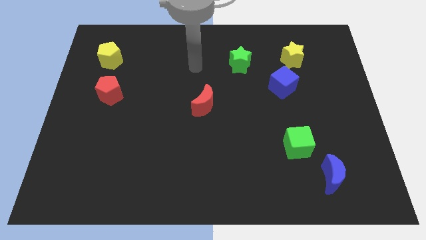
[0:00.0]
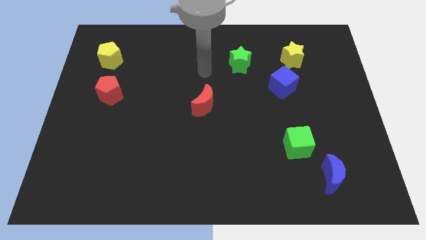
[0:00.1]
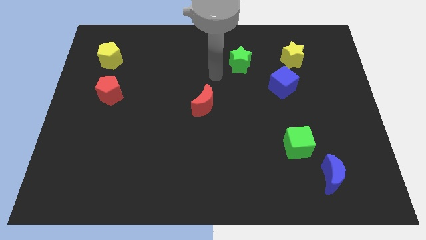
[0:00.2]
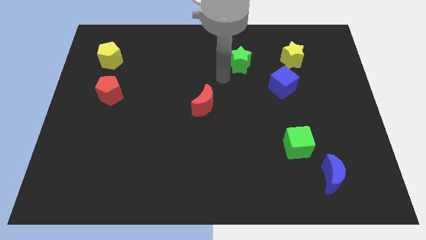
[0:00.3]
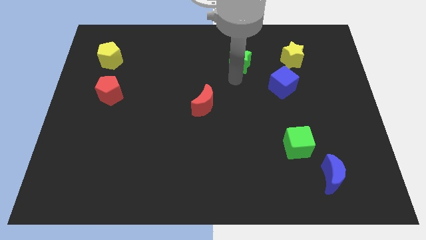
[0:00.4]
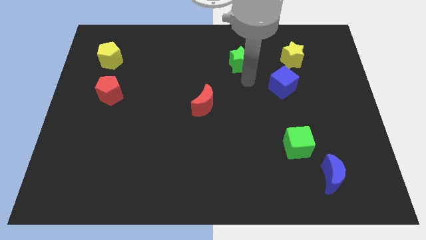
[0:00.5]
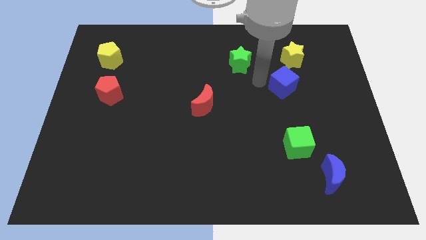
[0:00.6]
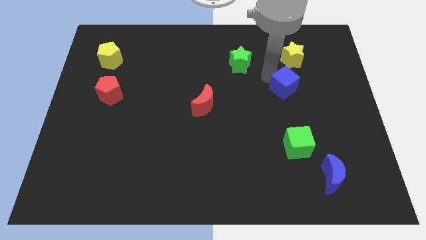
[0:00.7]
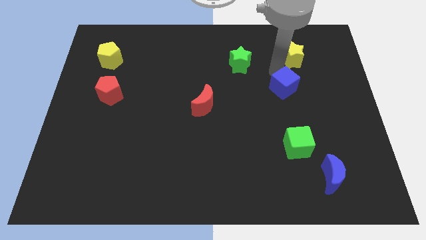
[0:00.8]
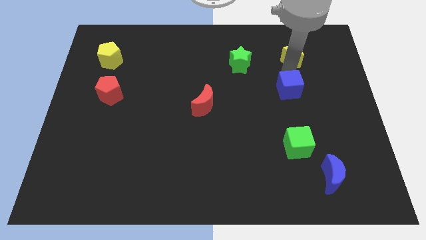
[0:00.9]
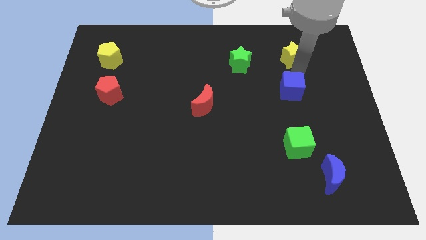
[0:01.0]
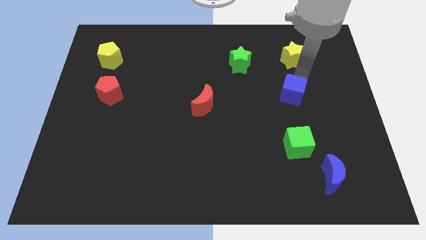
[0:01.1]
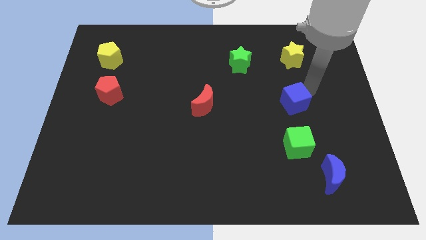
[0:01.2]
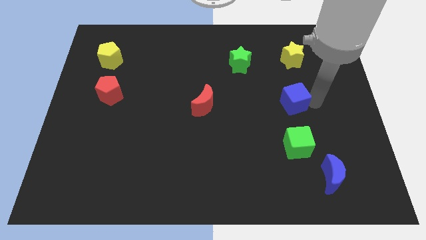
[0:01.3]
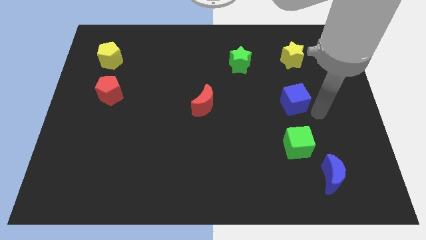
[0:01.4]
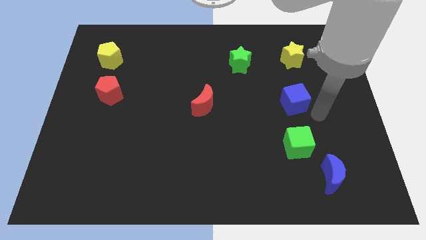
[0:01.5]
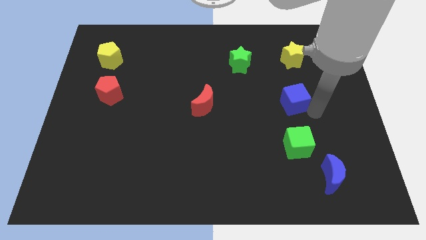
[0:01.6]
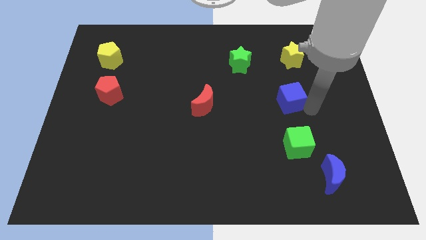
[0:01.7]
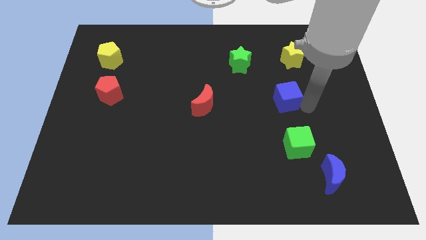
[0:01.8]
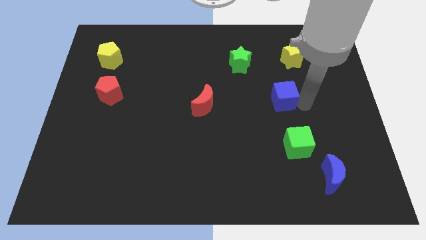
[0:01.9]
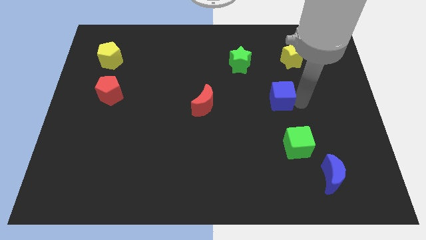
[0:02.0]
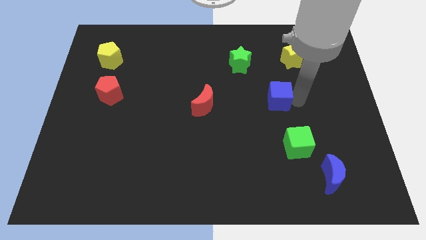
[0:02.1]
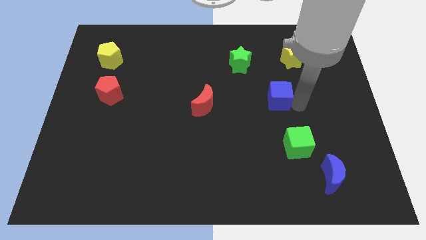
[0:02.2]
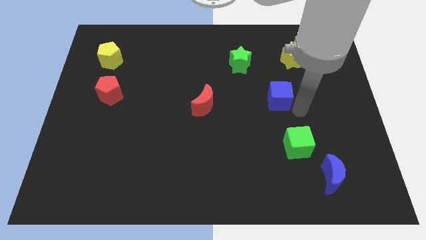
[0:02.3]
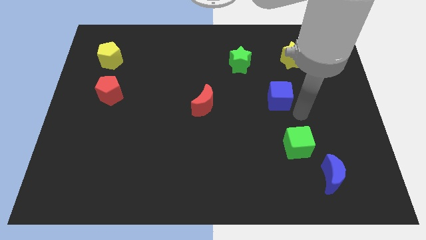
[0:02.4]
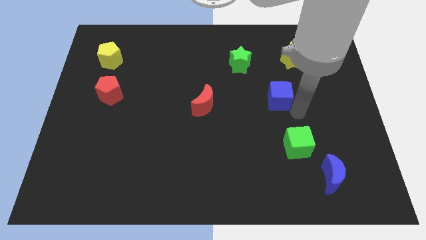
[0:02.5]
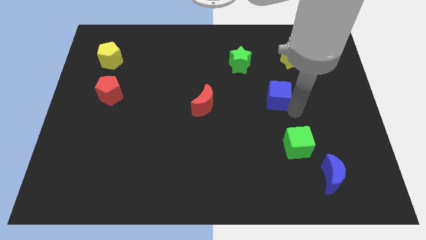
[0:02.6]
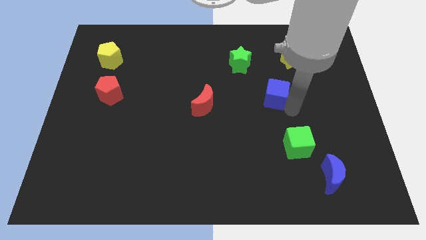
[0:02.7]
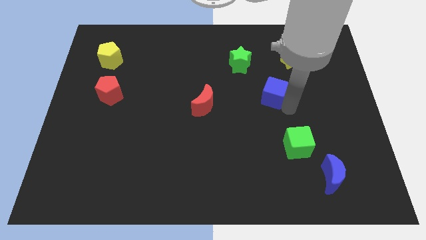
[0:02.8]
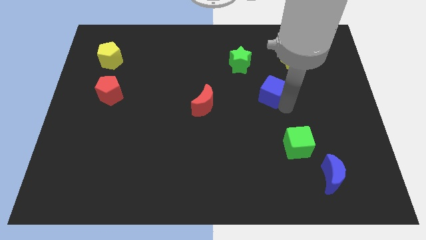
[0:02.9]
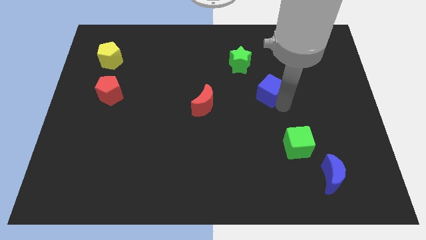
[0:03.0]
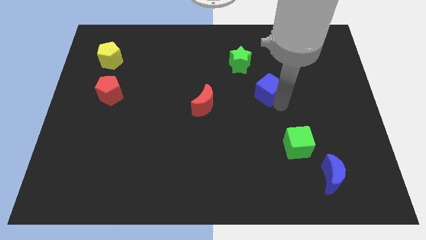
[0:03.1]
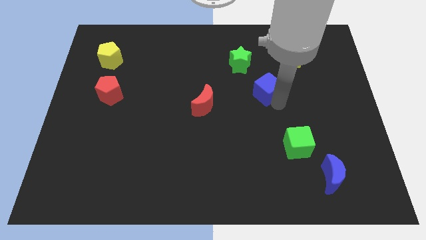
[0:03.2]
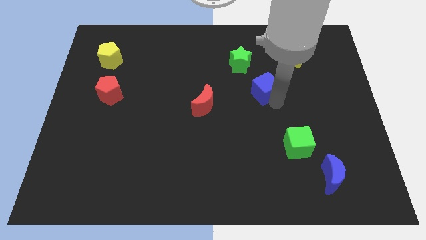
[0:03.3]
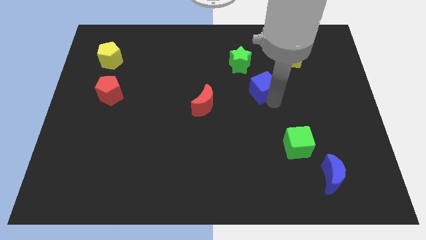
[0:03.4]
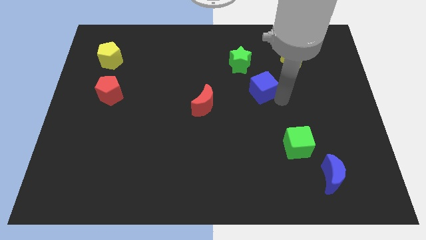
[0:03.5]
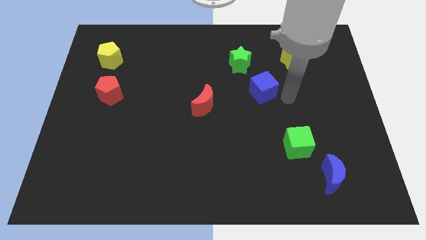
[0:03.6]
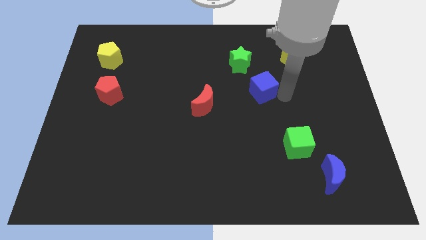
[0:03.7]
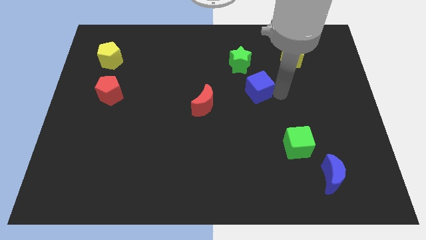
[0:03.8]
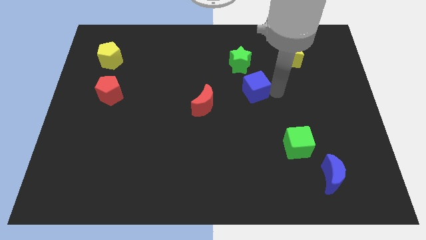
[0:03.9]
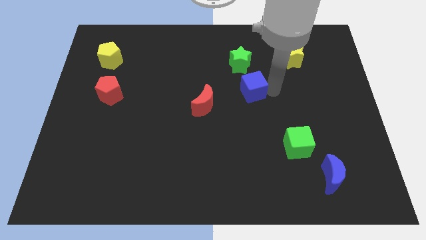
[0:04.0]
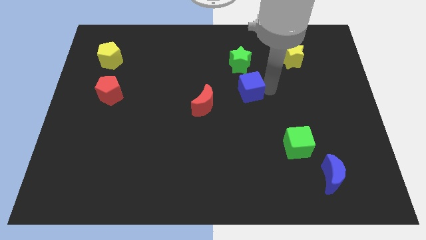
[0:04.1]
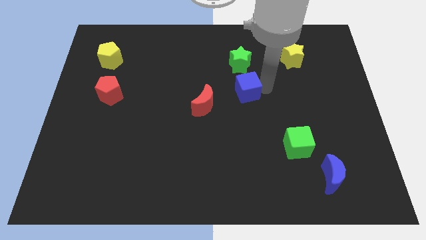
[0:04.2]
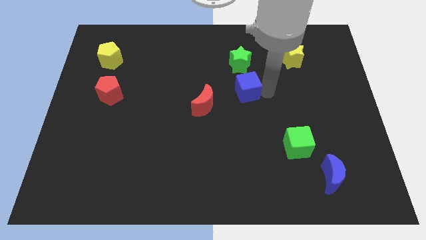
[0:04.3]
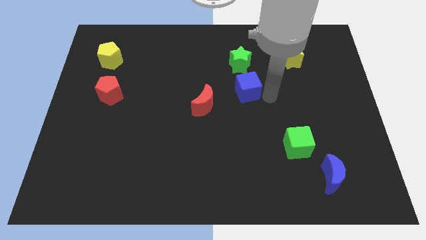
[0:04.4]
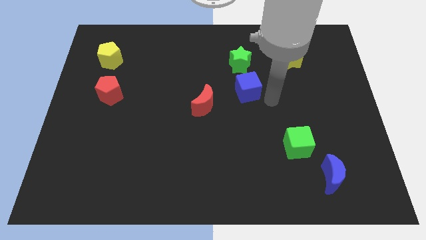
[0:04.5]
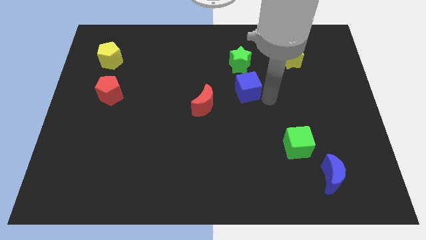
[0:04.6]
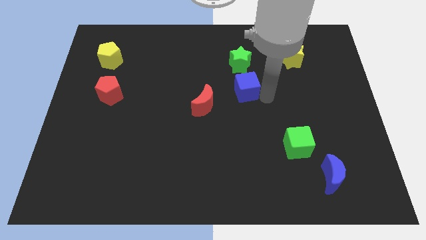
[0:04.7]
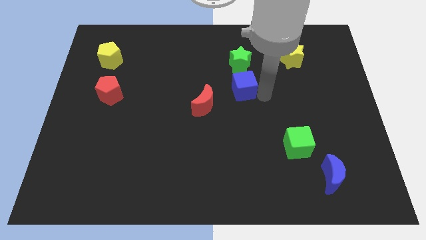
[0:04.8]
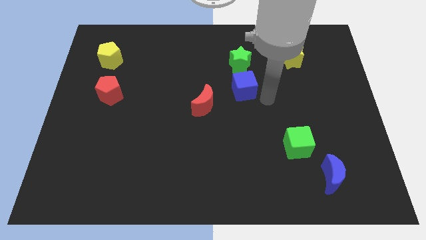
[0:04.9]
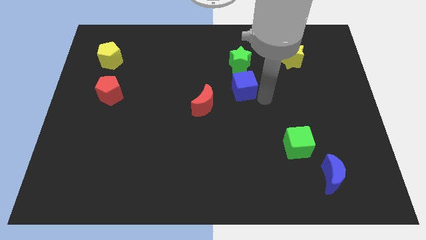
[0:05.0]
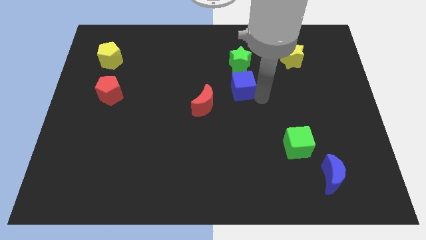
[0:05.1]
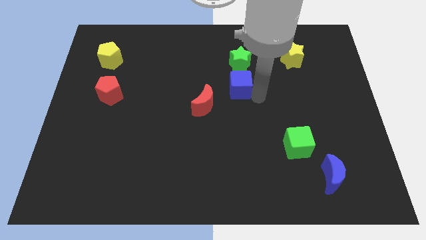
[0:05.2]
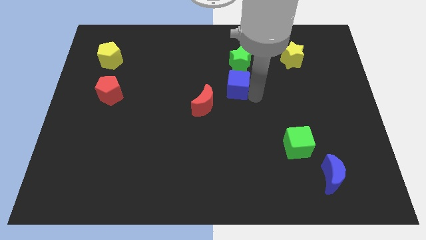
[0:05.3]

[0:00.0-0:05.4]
put the blue cube diagonally down and to the left of the green star

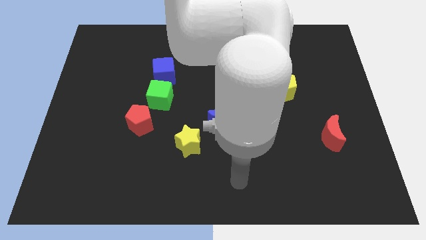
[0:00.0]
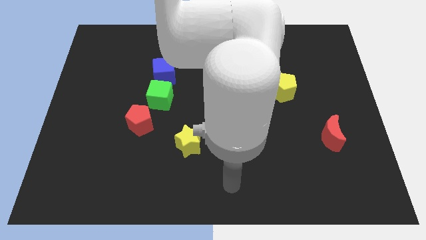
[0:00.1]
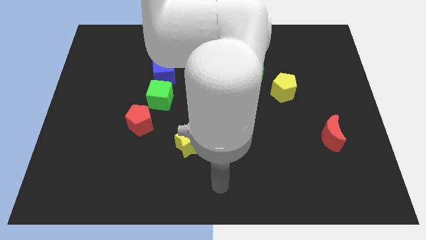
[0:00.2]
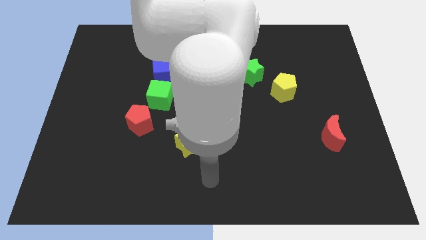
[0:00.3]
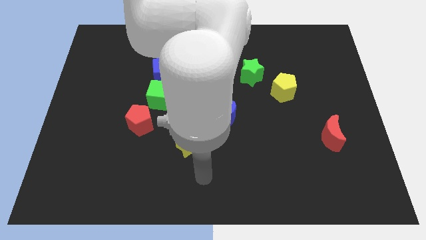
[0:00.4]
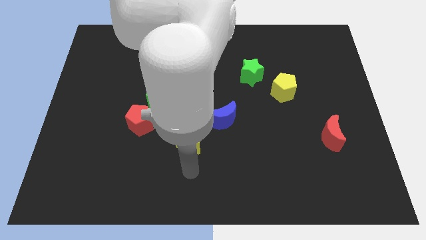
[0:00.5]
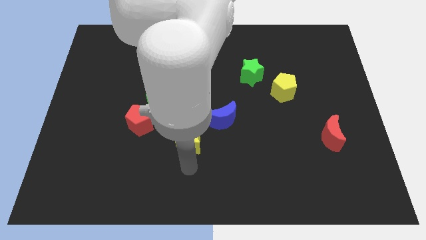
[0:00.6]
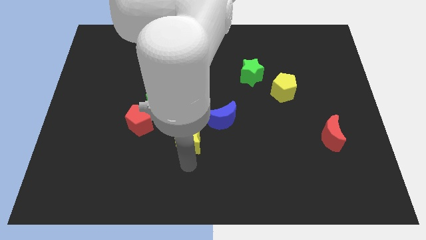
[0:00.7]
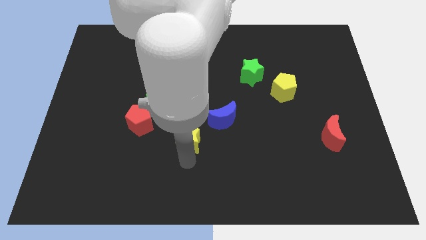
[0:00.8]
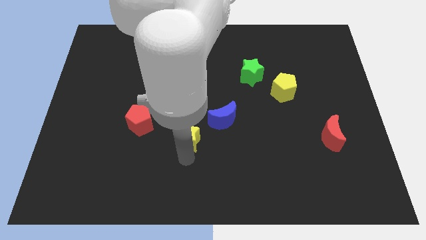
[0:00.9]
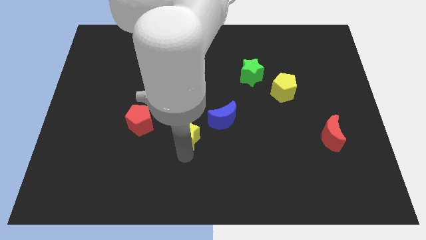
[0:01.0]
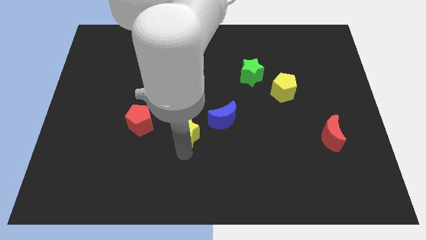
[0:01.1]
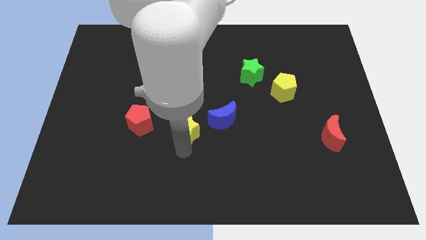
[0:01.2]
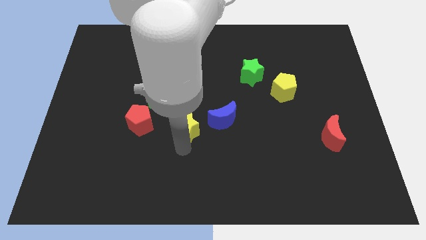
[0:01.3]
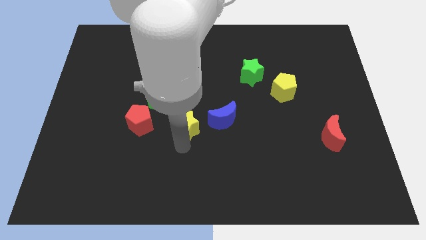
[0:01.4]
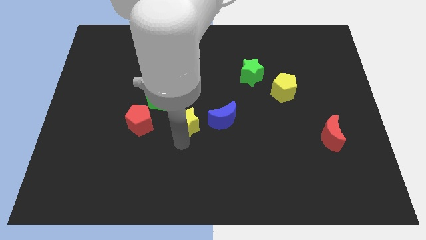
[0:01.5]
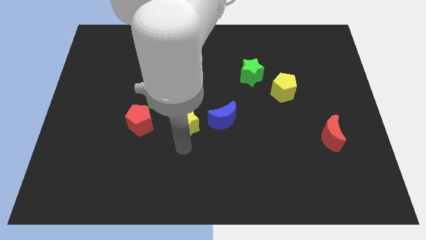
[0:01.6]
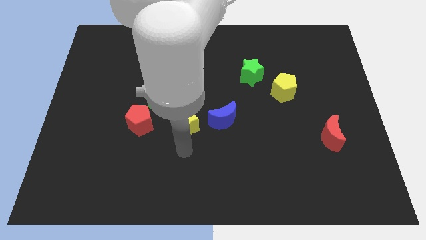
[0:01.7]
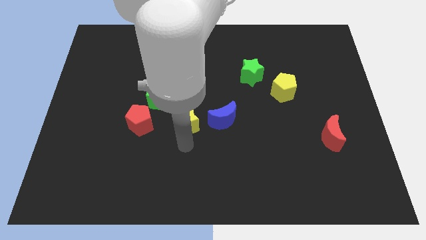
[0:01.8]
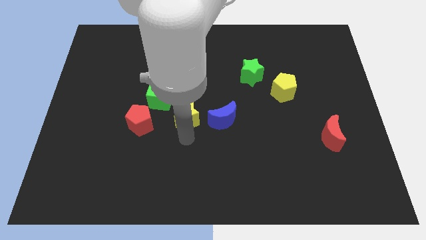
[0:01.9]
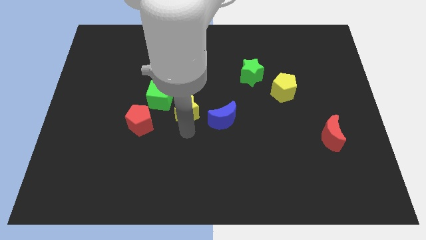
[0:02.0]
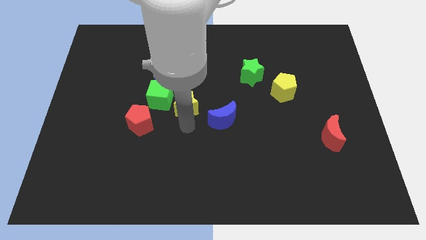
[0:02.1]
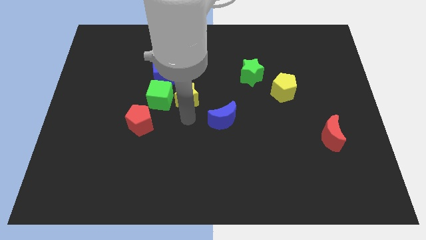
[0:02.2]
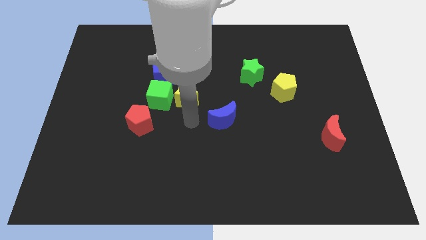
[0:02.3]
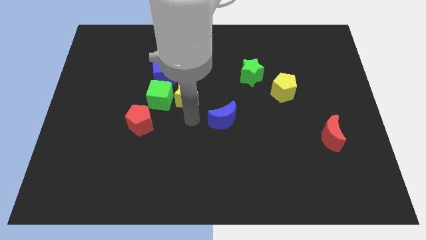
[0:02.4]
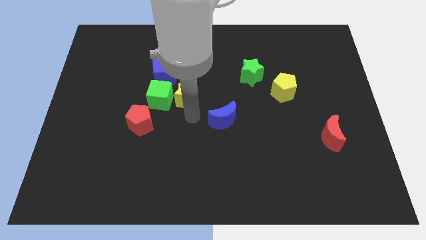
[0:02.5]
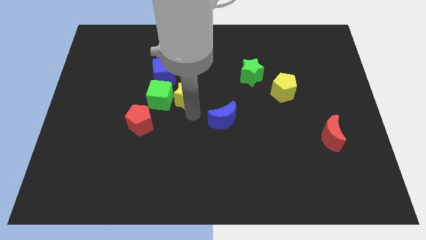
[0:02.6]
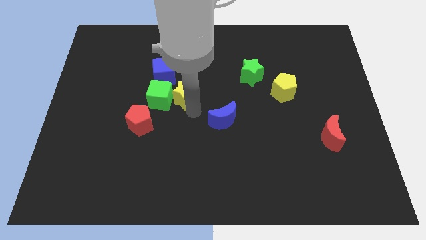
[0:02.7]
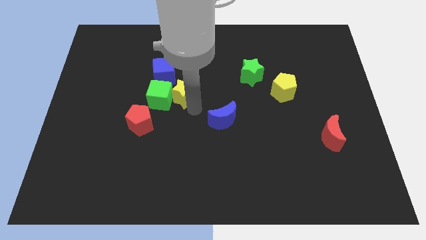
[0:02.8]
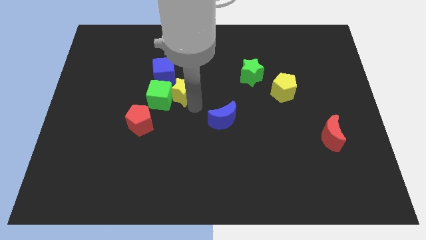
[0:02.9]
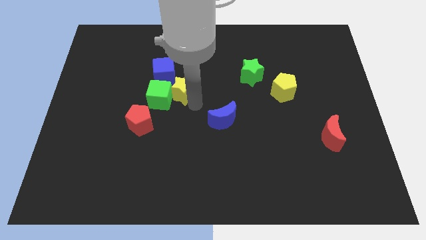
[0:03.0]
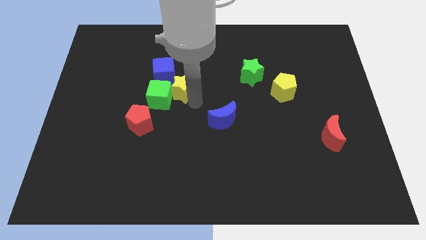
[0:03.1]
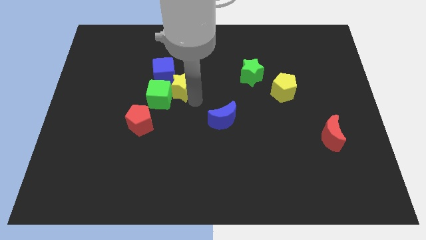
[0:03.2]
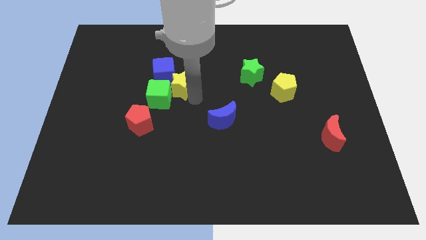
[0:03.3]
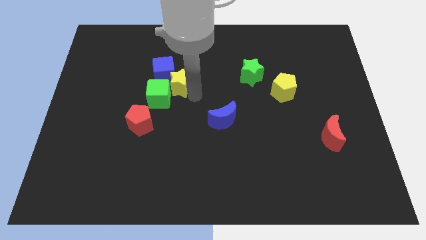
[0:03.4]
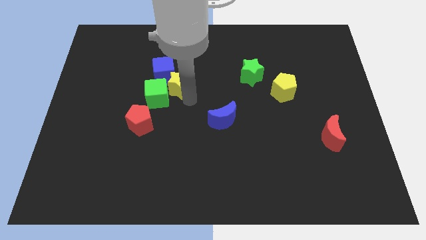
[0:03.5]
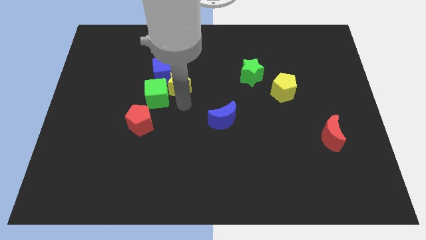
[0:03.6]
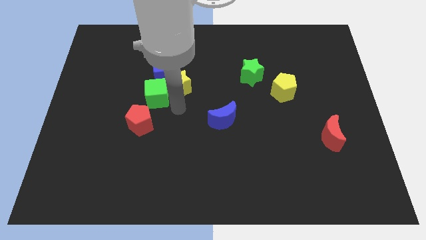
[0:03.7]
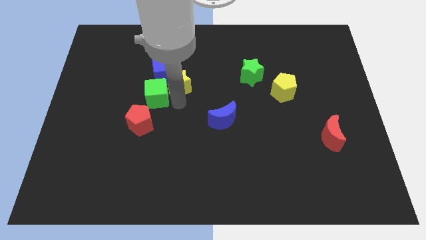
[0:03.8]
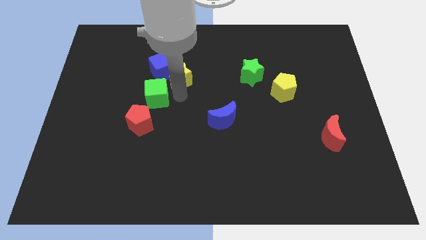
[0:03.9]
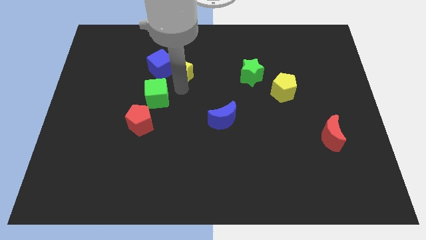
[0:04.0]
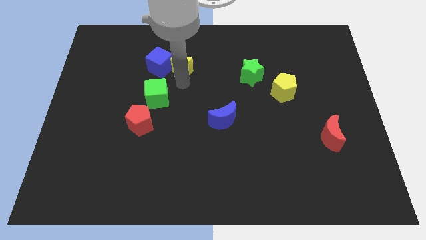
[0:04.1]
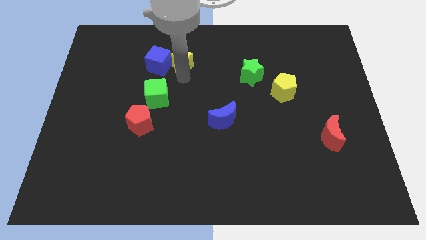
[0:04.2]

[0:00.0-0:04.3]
move the yellow star to the top right of the blue cube
